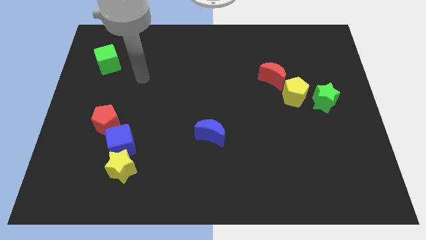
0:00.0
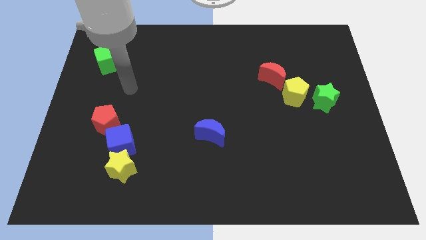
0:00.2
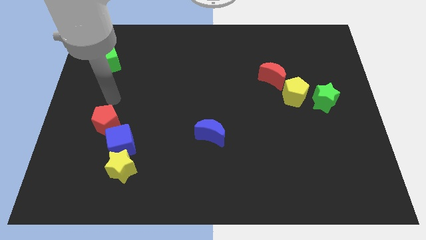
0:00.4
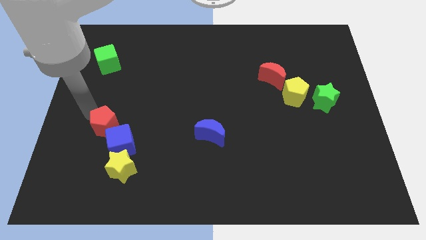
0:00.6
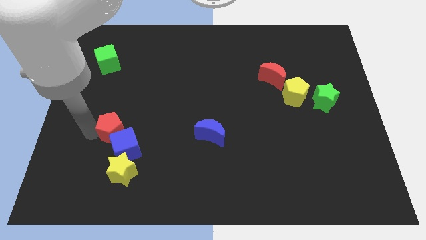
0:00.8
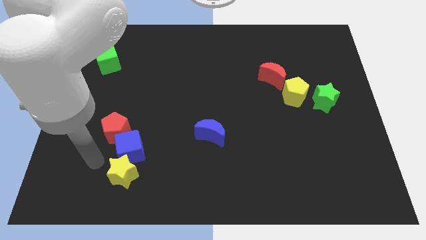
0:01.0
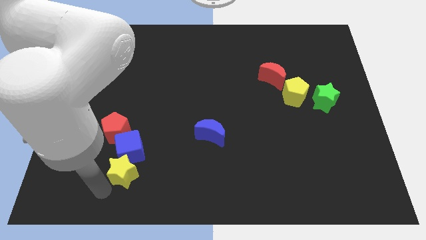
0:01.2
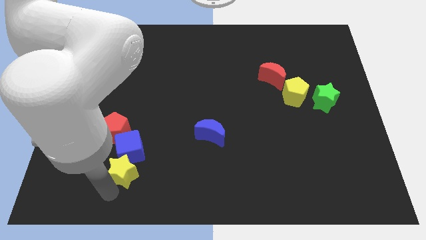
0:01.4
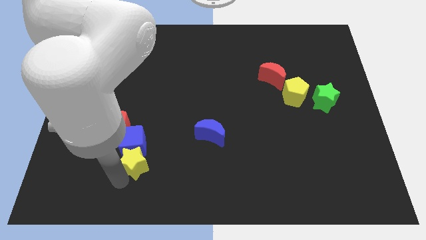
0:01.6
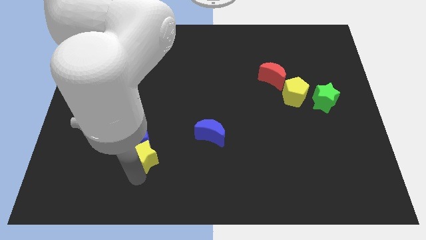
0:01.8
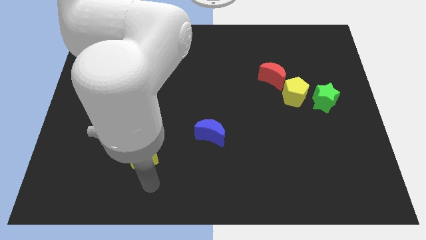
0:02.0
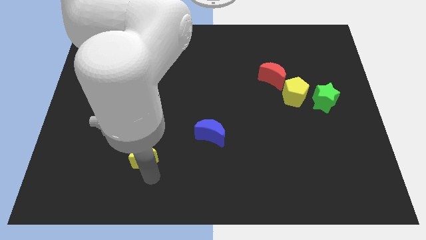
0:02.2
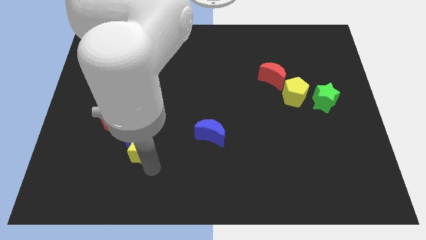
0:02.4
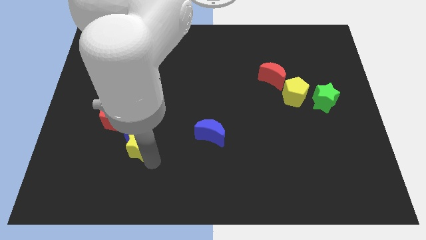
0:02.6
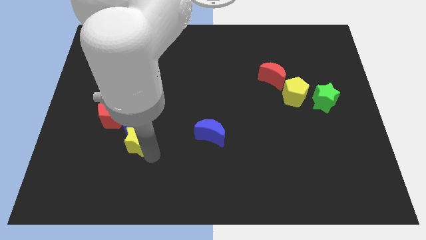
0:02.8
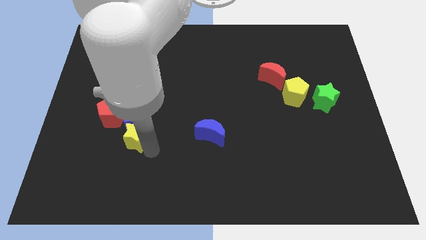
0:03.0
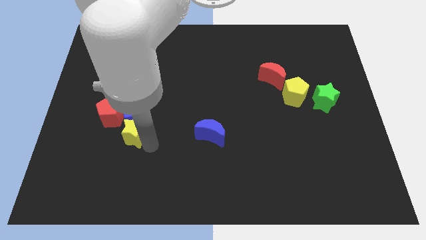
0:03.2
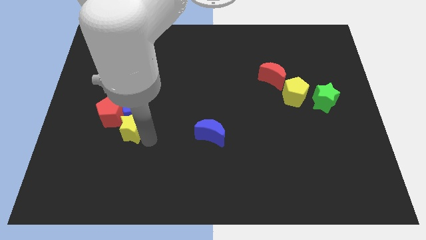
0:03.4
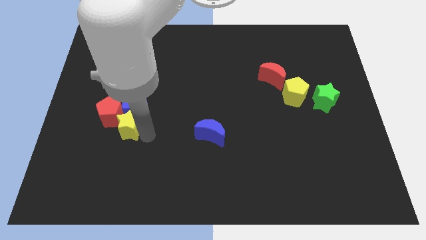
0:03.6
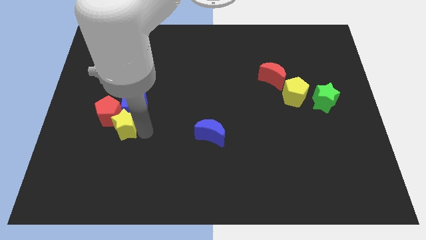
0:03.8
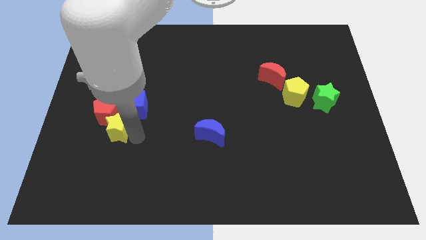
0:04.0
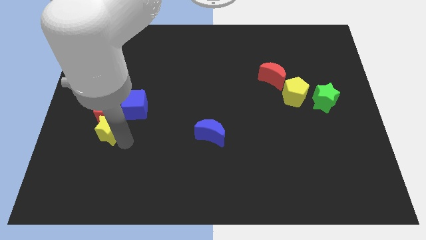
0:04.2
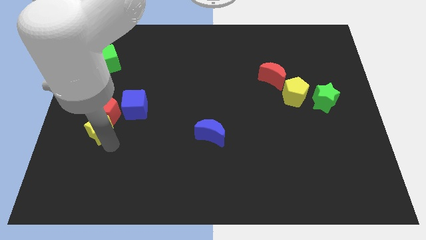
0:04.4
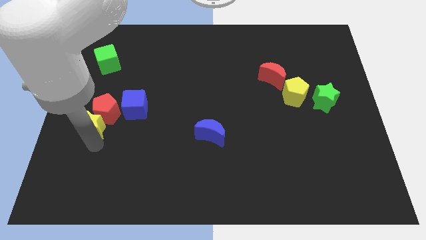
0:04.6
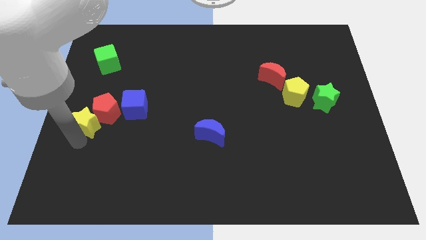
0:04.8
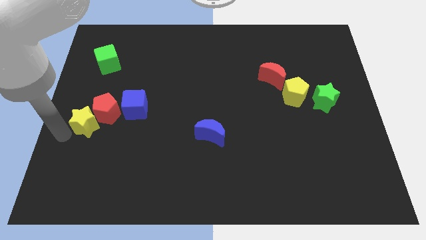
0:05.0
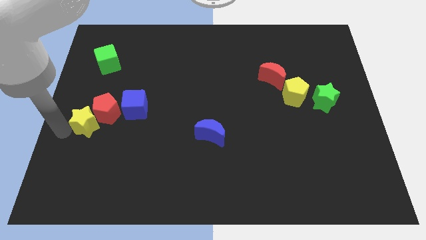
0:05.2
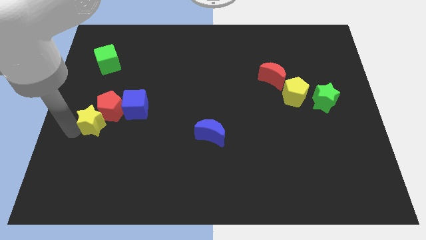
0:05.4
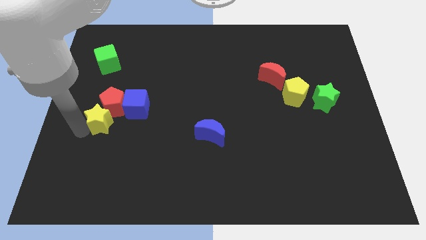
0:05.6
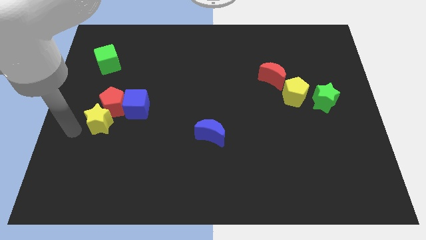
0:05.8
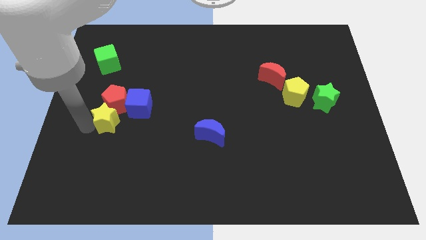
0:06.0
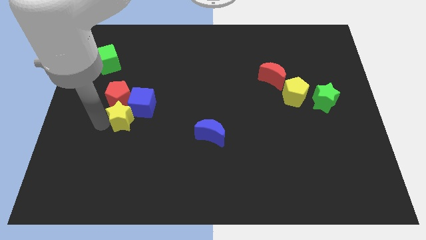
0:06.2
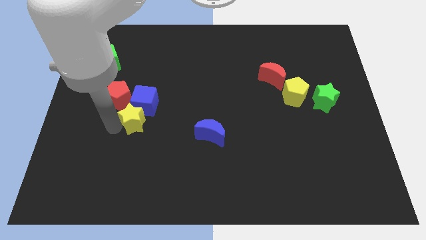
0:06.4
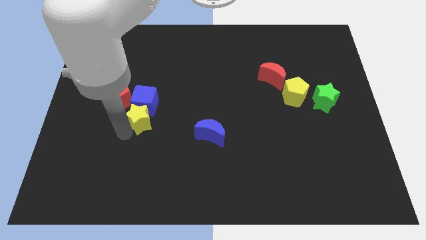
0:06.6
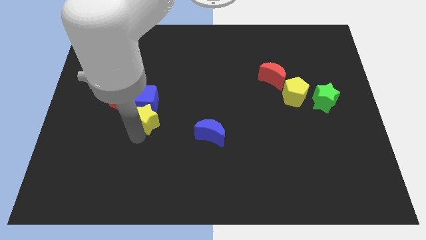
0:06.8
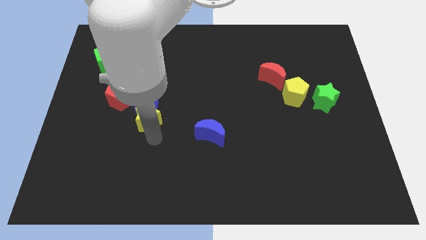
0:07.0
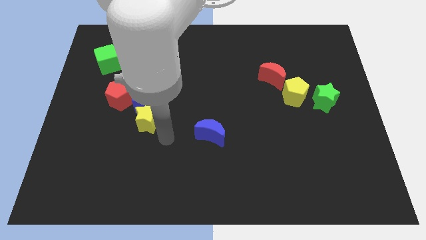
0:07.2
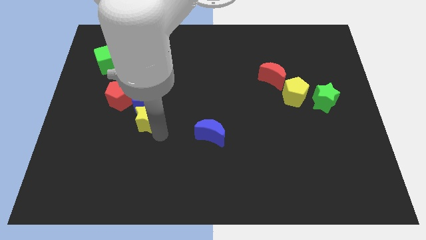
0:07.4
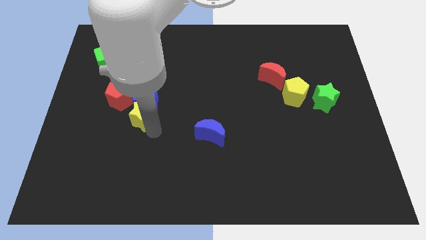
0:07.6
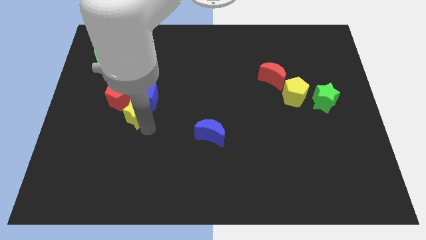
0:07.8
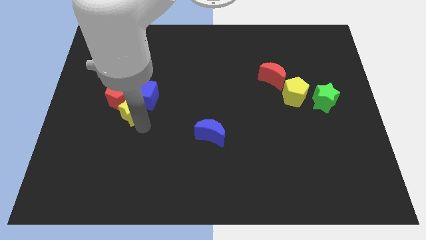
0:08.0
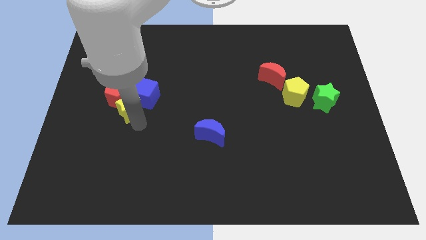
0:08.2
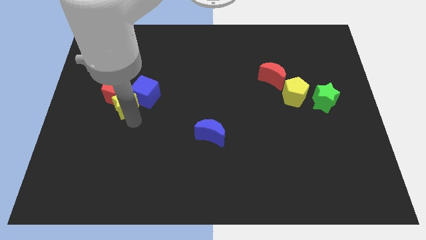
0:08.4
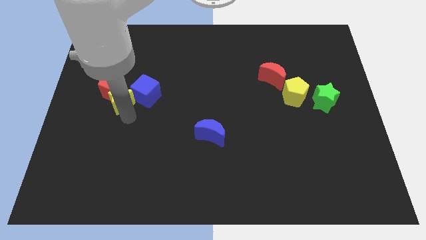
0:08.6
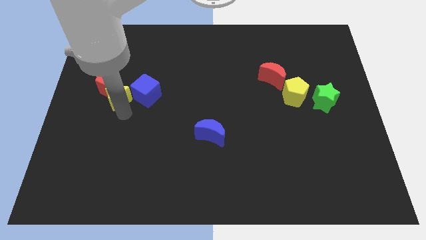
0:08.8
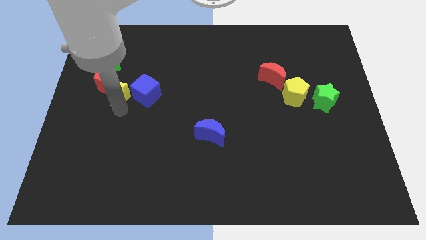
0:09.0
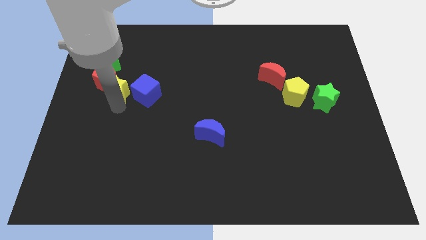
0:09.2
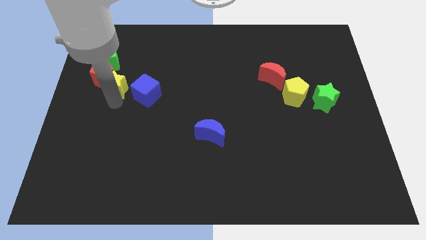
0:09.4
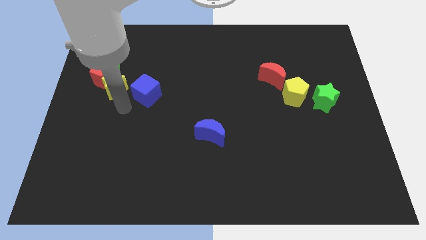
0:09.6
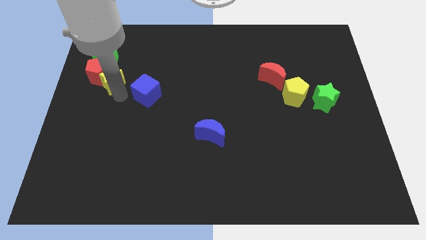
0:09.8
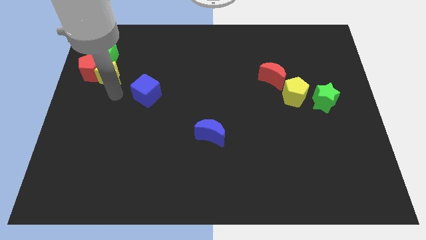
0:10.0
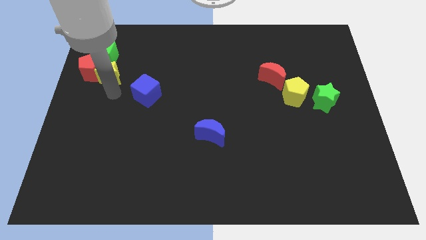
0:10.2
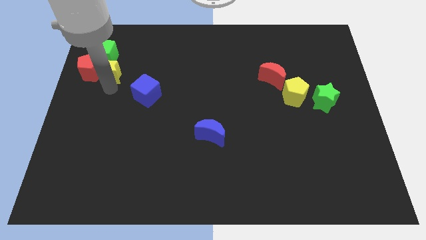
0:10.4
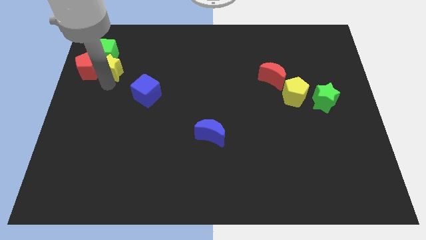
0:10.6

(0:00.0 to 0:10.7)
slide the yellow star to the green cube

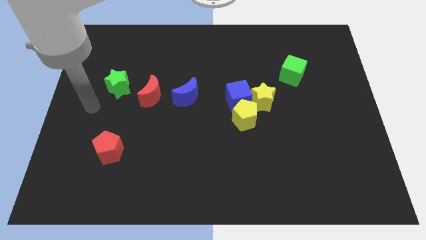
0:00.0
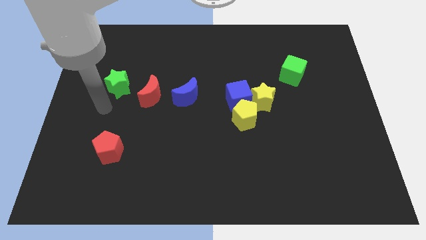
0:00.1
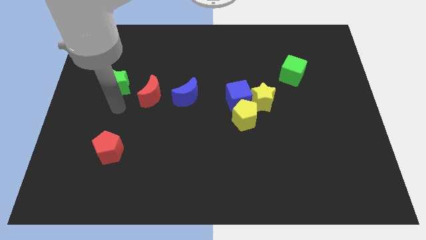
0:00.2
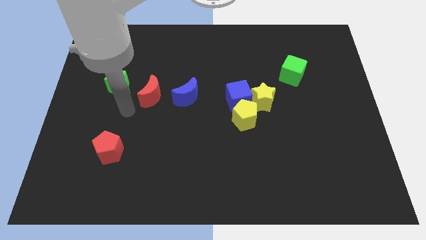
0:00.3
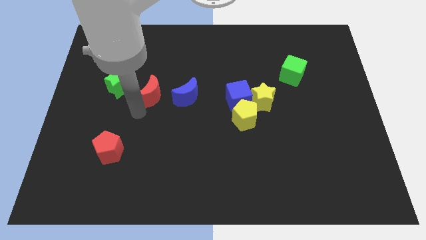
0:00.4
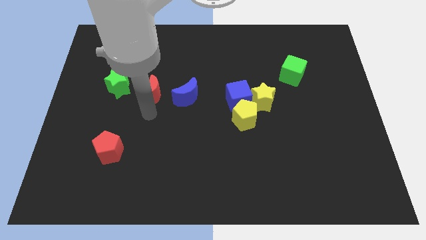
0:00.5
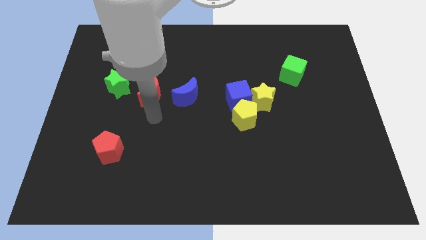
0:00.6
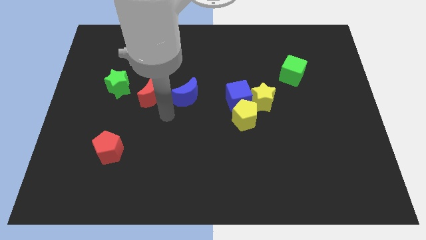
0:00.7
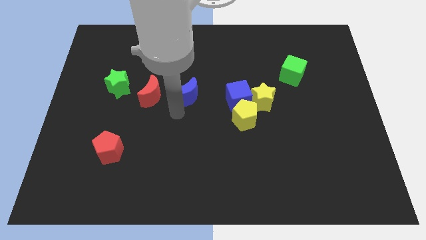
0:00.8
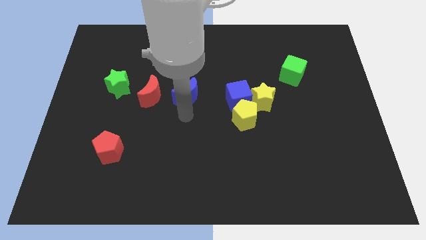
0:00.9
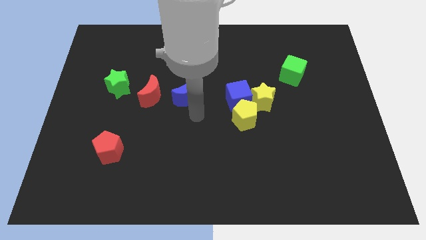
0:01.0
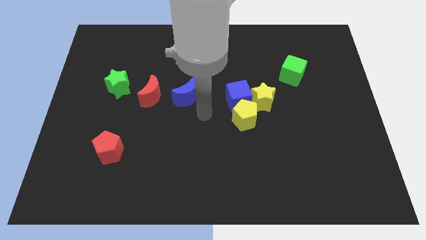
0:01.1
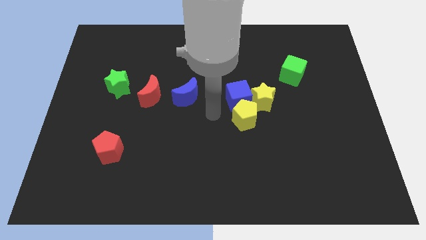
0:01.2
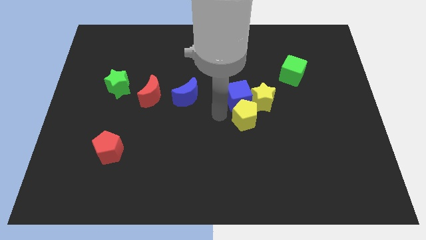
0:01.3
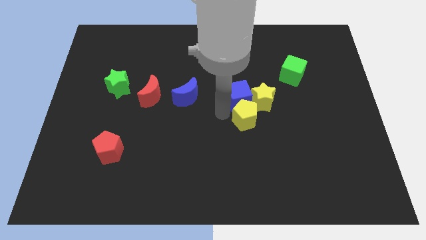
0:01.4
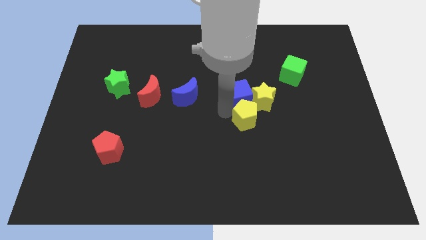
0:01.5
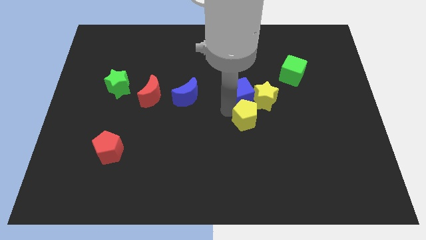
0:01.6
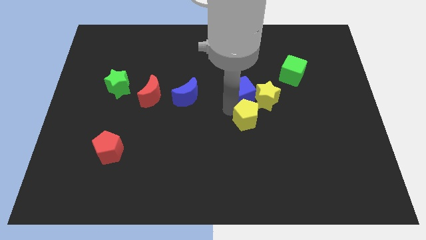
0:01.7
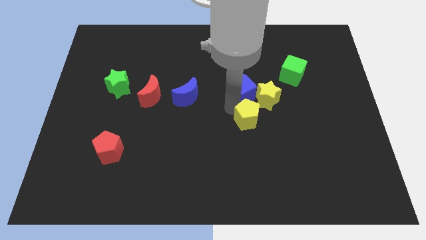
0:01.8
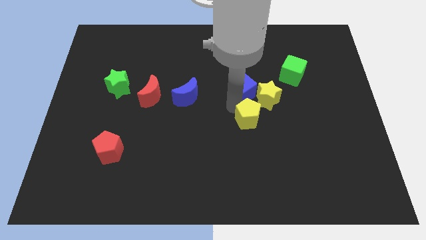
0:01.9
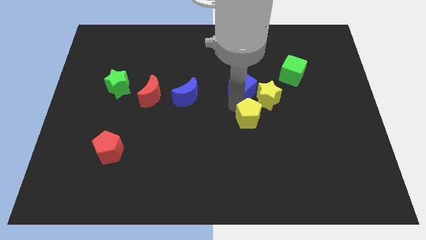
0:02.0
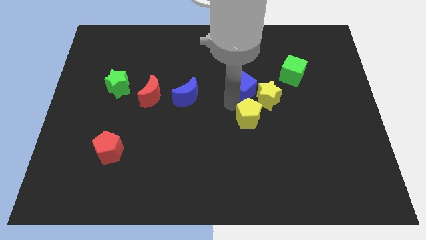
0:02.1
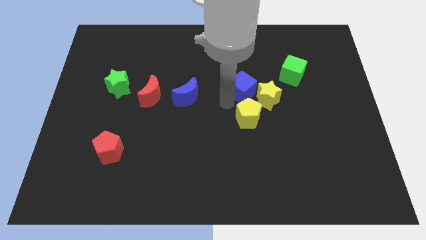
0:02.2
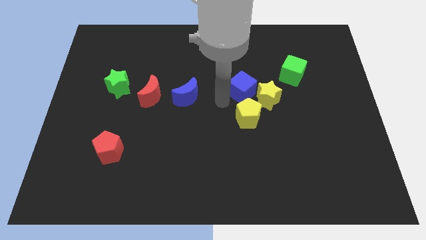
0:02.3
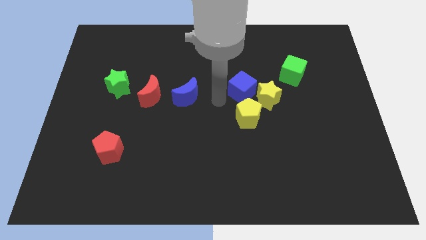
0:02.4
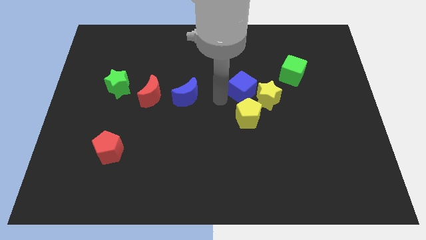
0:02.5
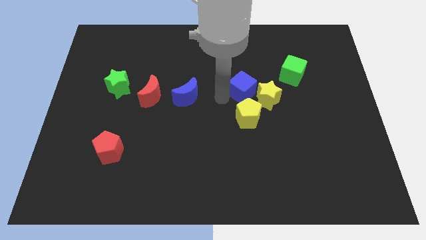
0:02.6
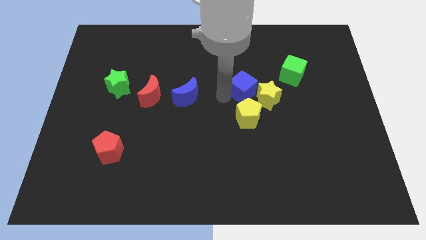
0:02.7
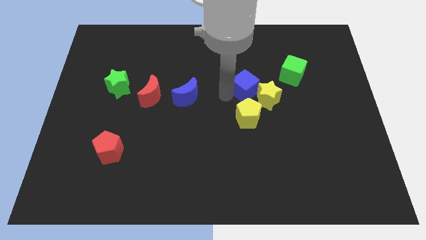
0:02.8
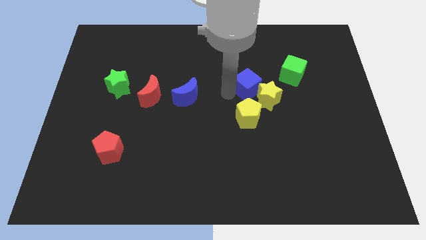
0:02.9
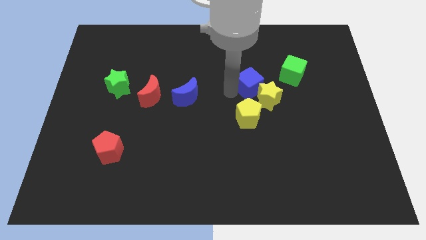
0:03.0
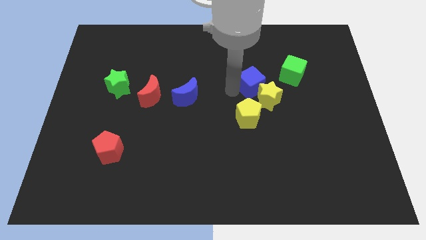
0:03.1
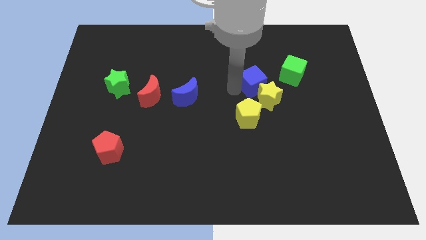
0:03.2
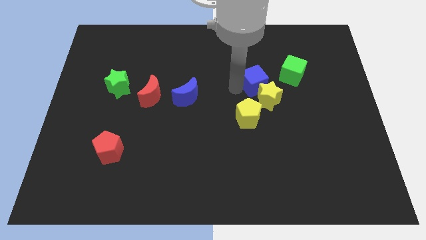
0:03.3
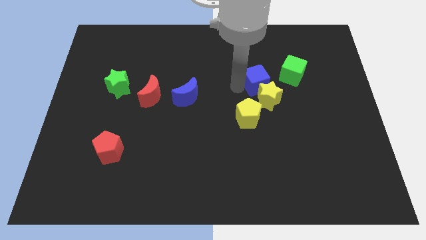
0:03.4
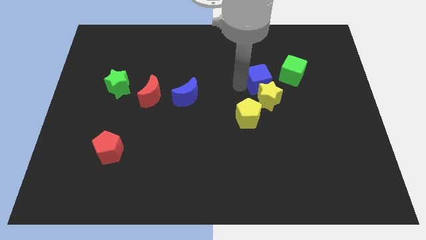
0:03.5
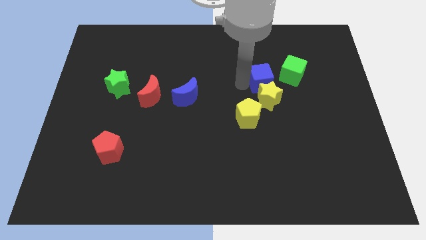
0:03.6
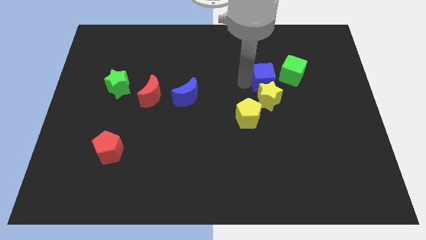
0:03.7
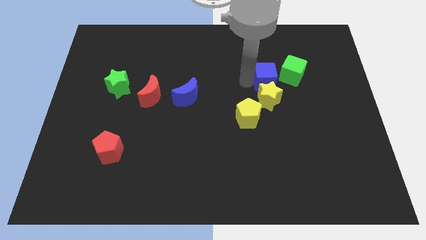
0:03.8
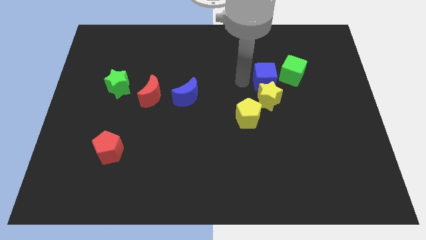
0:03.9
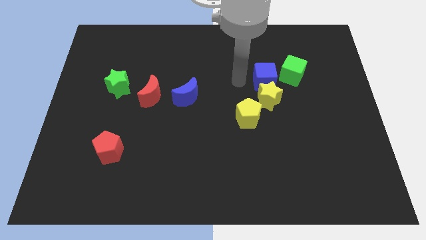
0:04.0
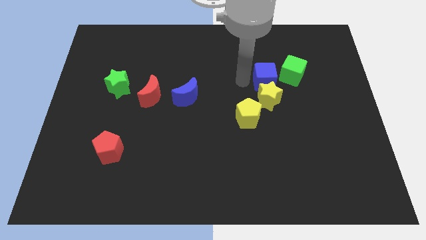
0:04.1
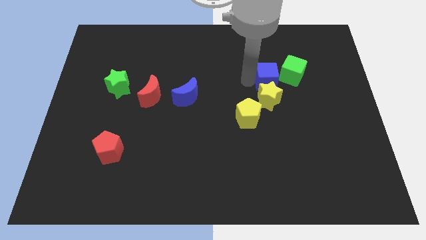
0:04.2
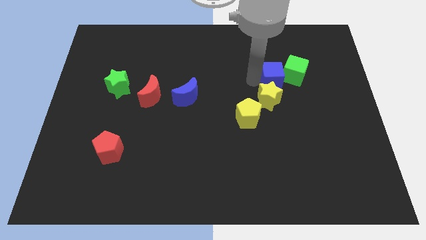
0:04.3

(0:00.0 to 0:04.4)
move the blue cube next to the green cube
